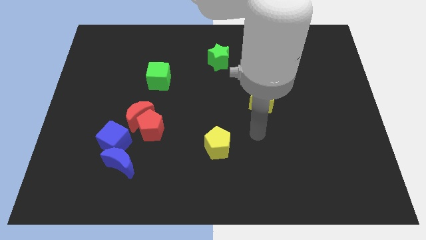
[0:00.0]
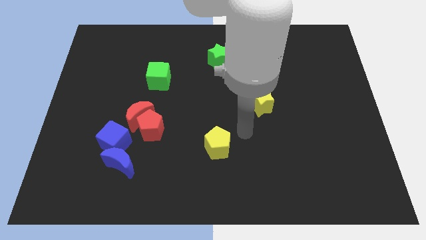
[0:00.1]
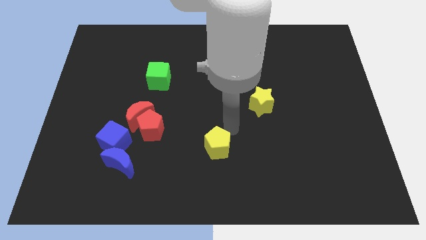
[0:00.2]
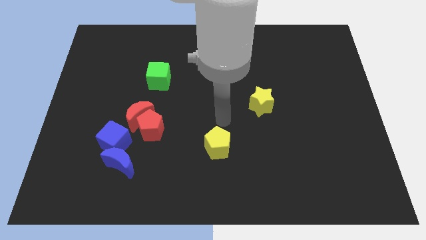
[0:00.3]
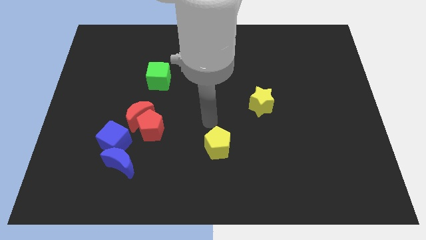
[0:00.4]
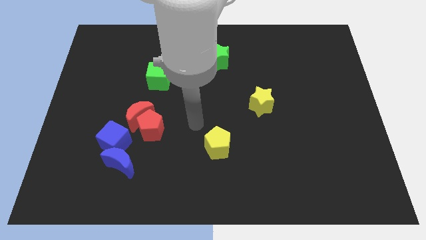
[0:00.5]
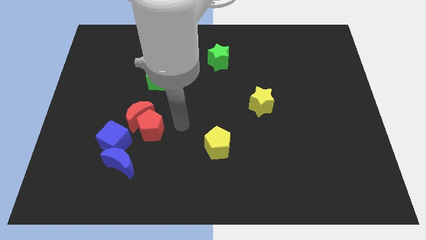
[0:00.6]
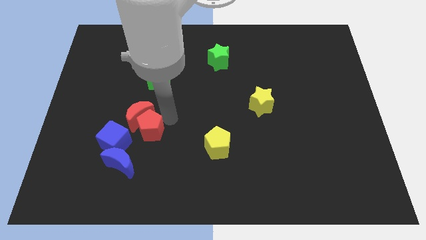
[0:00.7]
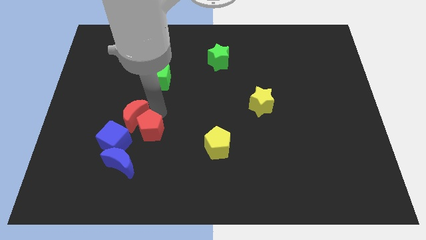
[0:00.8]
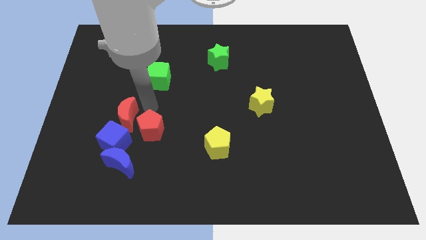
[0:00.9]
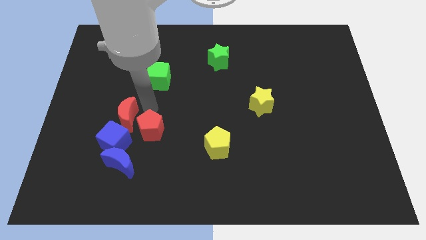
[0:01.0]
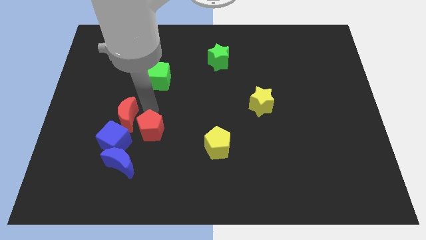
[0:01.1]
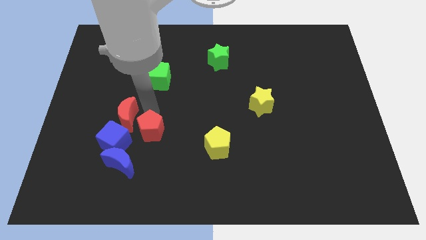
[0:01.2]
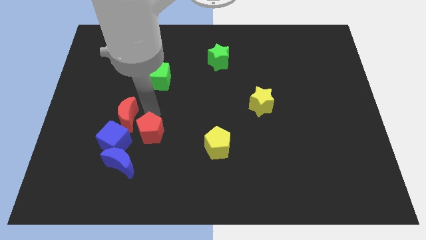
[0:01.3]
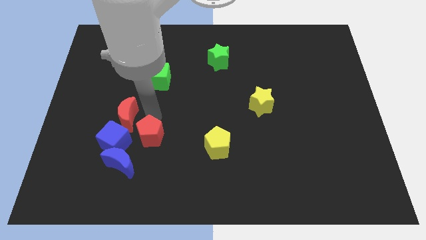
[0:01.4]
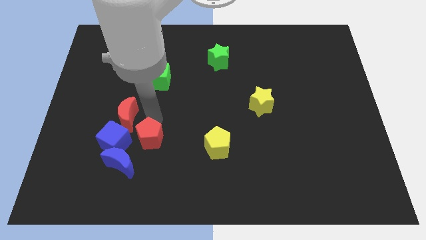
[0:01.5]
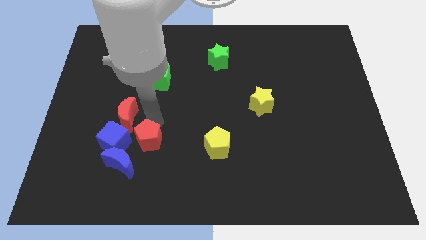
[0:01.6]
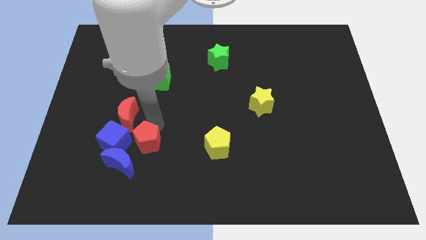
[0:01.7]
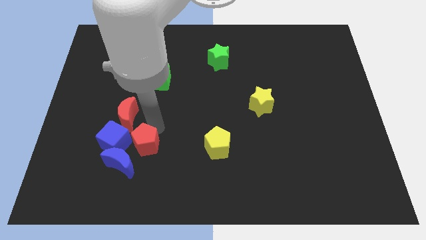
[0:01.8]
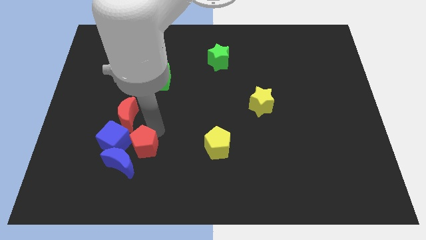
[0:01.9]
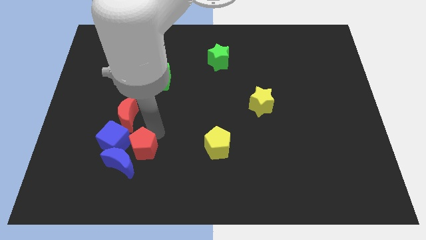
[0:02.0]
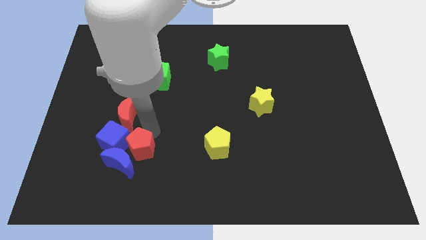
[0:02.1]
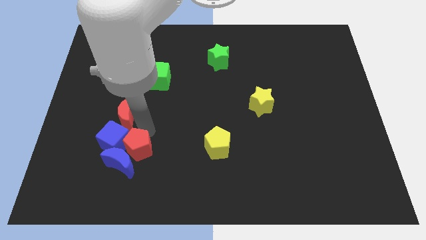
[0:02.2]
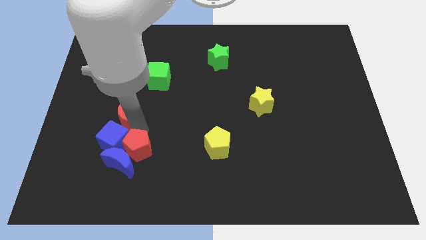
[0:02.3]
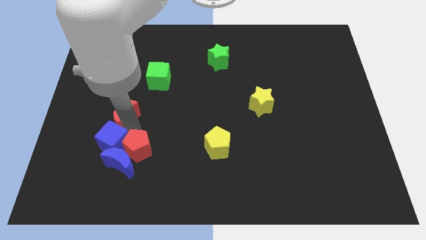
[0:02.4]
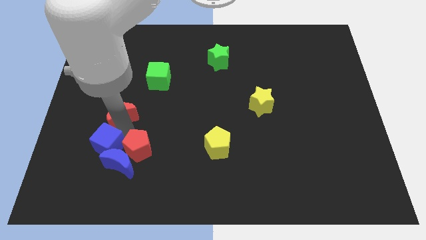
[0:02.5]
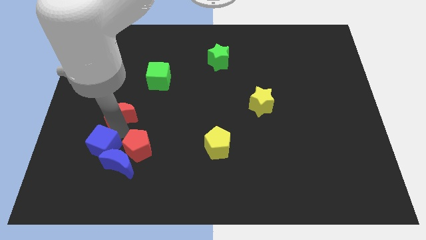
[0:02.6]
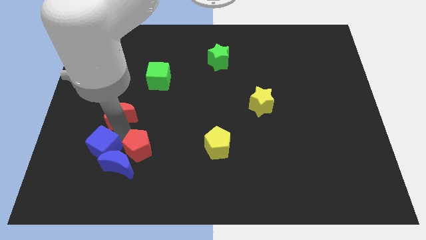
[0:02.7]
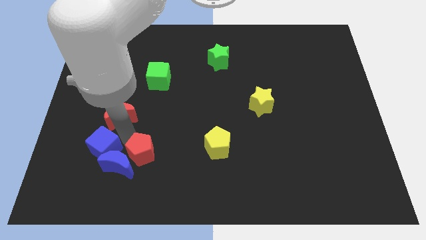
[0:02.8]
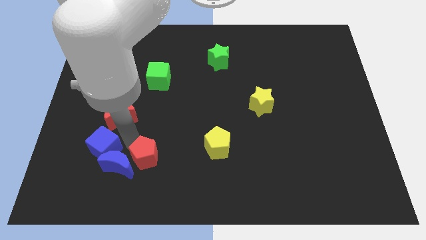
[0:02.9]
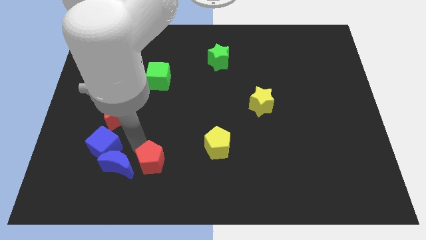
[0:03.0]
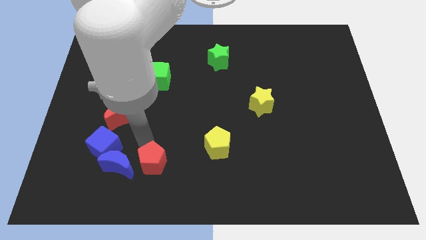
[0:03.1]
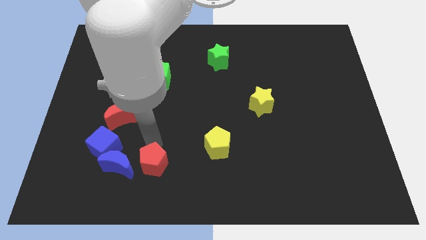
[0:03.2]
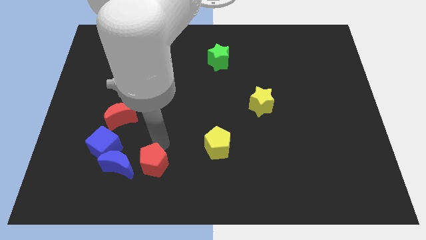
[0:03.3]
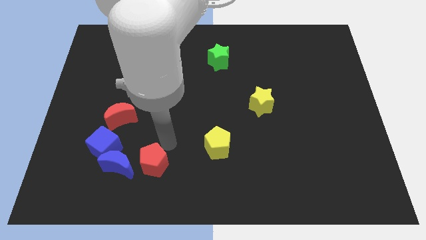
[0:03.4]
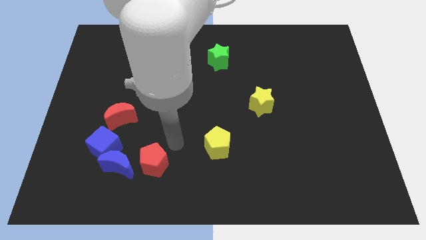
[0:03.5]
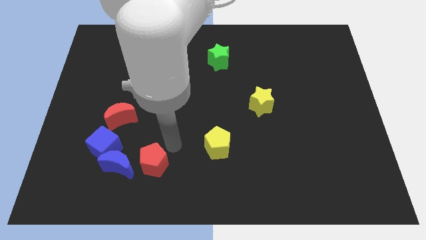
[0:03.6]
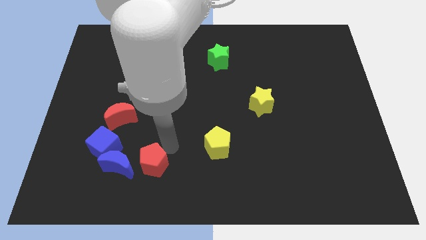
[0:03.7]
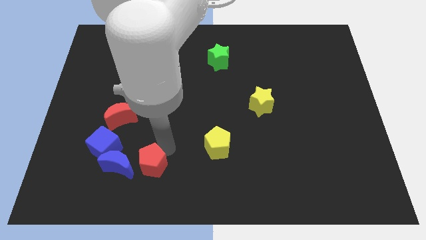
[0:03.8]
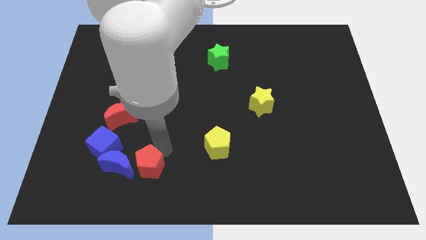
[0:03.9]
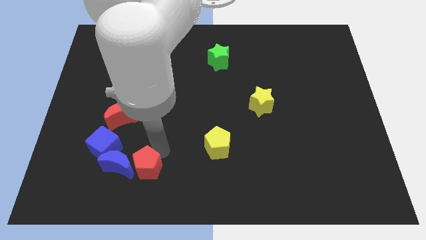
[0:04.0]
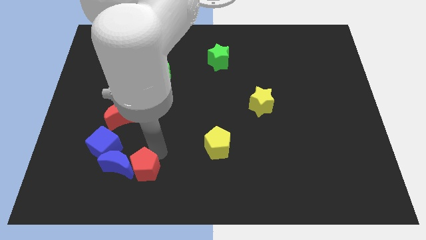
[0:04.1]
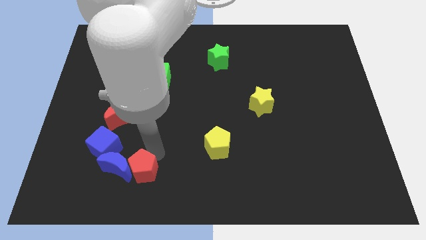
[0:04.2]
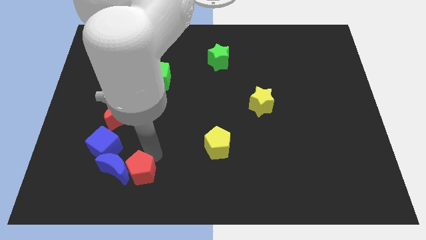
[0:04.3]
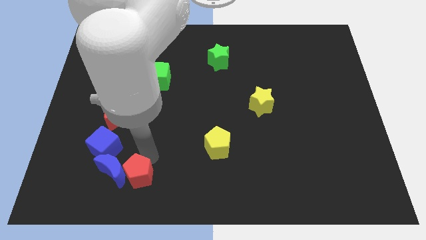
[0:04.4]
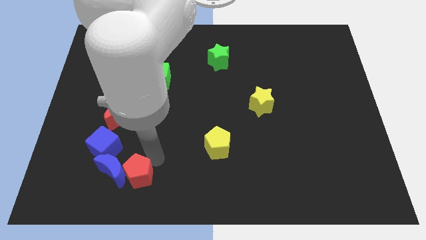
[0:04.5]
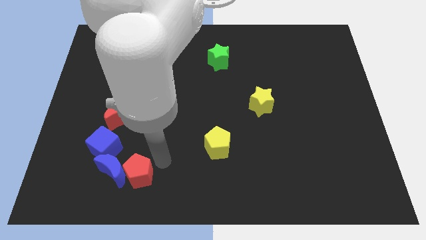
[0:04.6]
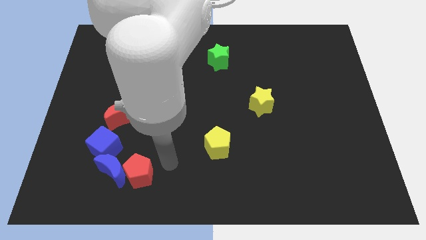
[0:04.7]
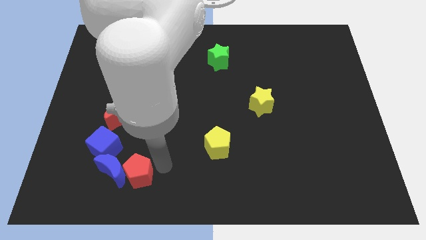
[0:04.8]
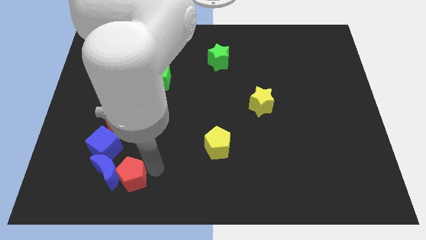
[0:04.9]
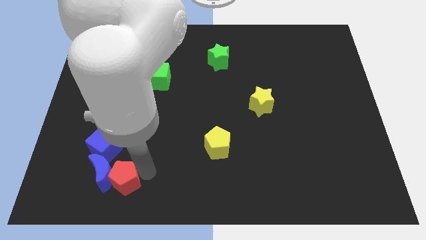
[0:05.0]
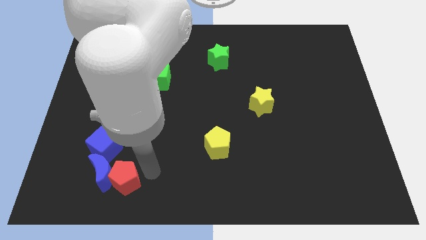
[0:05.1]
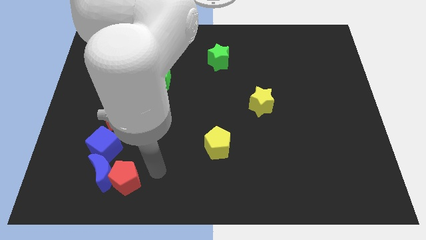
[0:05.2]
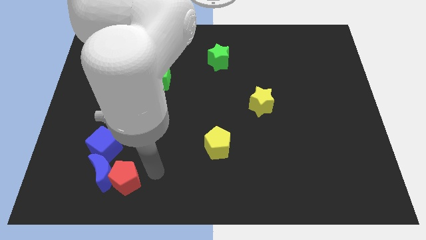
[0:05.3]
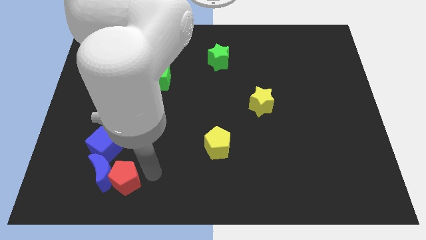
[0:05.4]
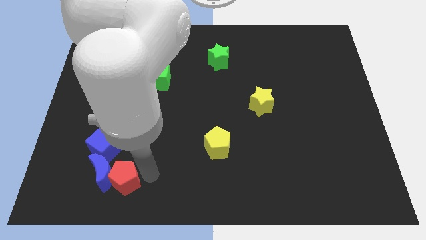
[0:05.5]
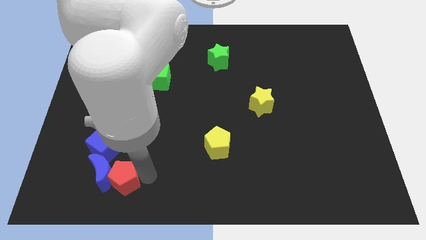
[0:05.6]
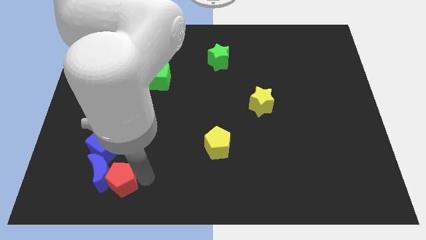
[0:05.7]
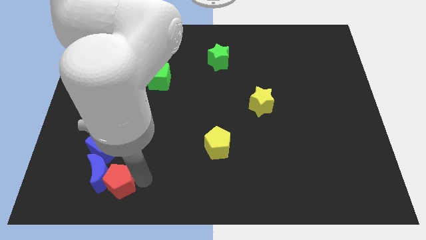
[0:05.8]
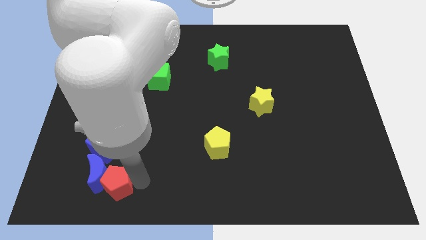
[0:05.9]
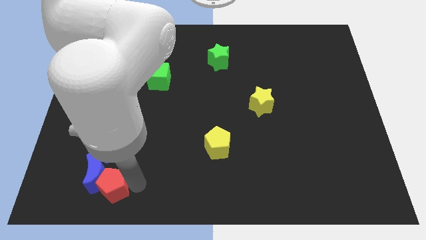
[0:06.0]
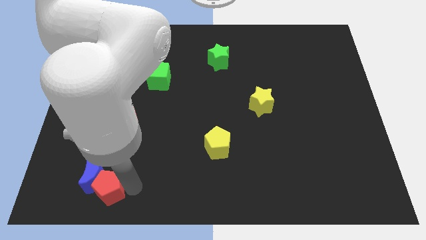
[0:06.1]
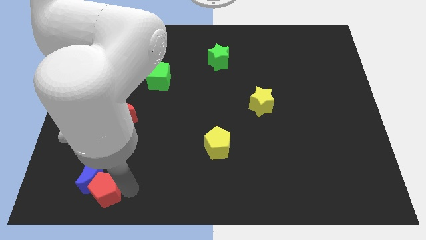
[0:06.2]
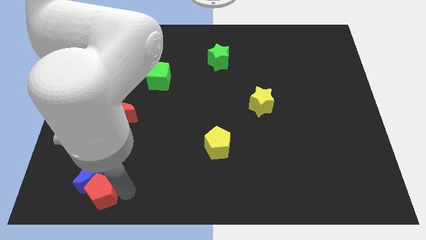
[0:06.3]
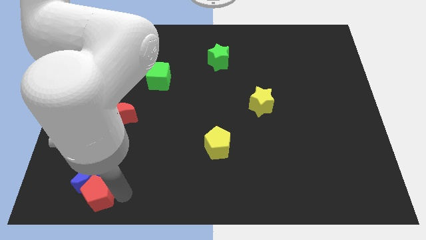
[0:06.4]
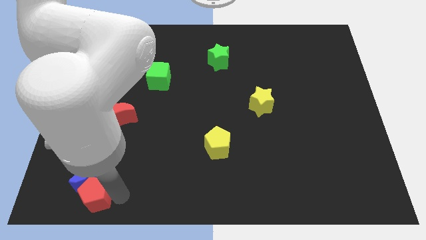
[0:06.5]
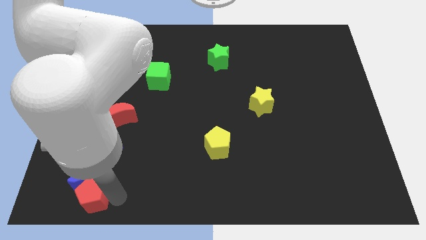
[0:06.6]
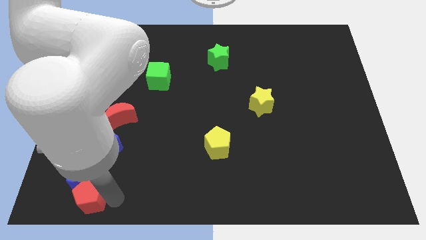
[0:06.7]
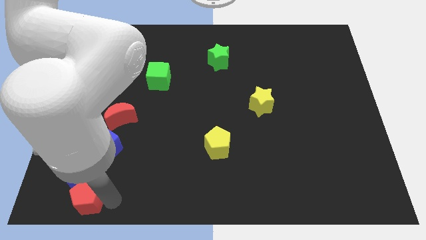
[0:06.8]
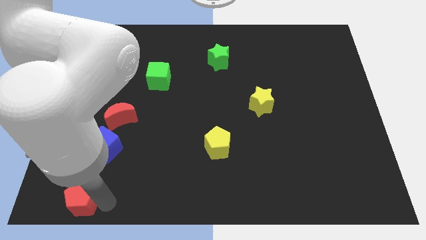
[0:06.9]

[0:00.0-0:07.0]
put the red pentagon to the bottom left

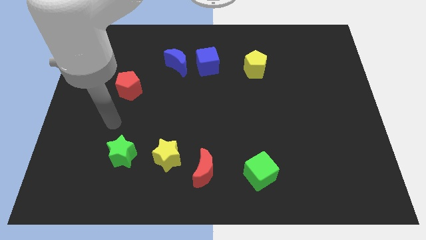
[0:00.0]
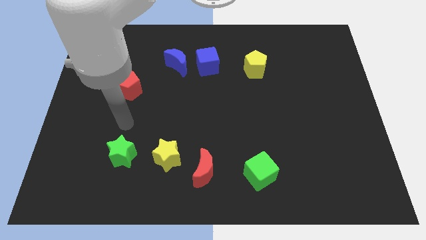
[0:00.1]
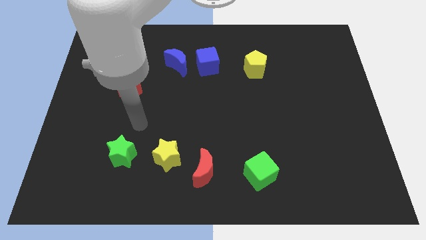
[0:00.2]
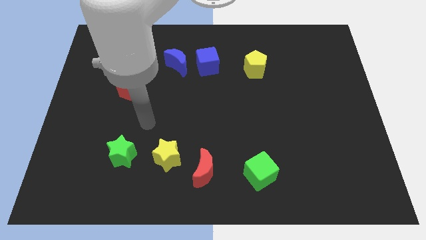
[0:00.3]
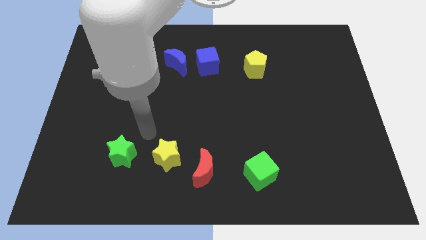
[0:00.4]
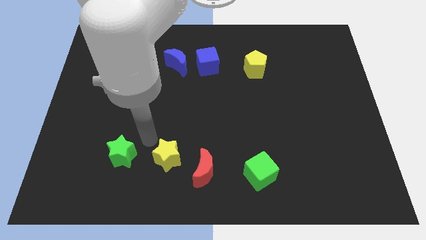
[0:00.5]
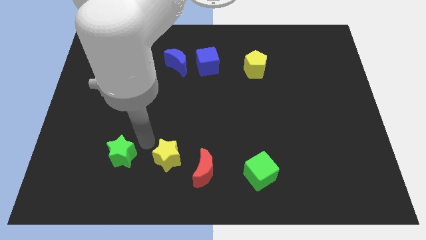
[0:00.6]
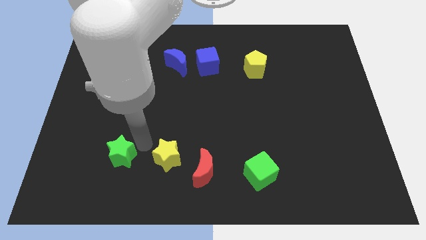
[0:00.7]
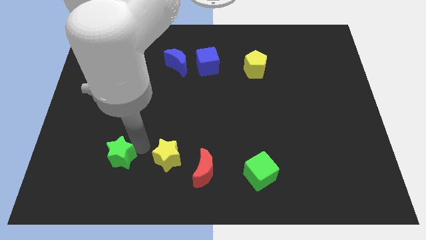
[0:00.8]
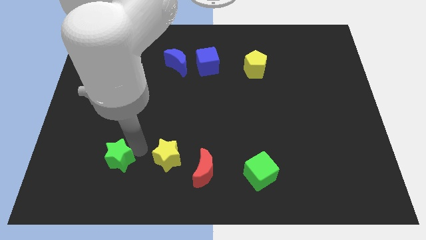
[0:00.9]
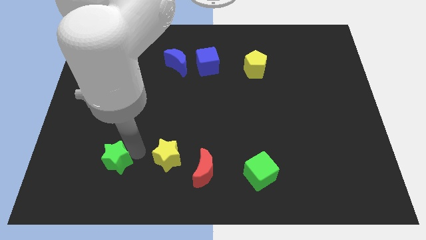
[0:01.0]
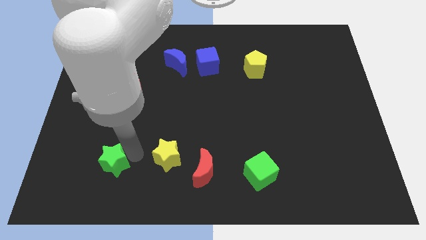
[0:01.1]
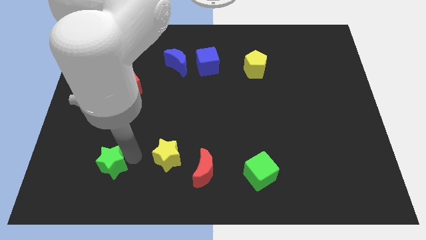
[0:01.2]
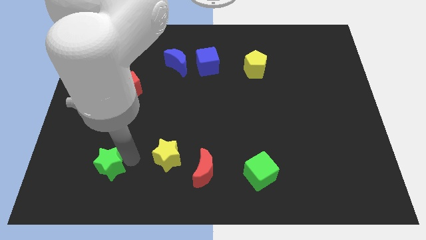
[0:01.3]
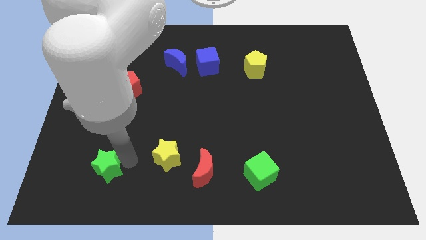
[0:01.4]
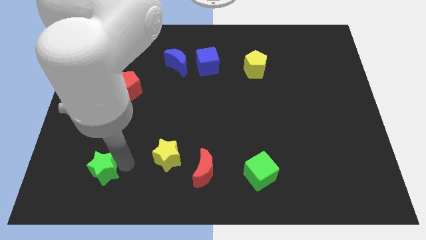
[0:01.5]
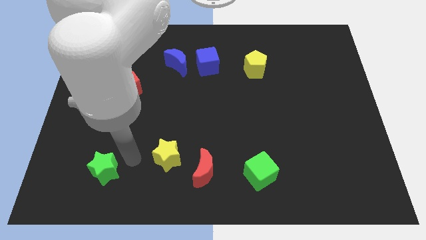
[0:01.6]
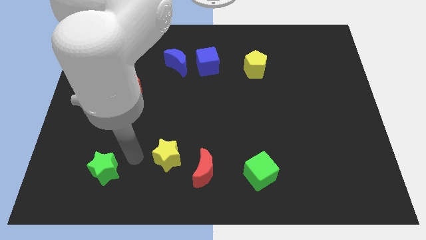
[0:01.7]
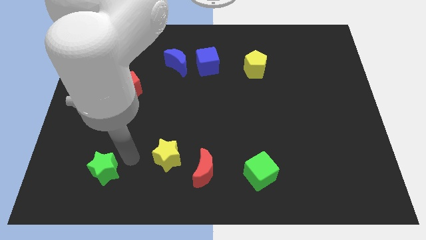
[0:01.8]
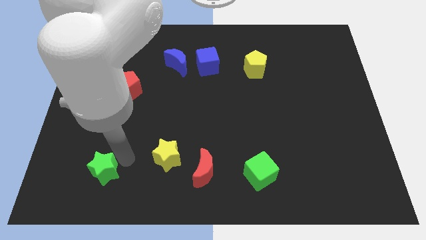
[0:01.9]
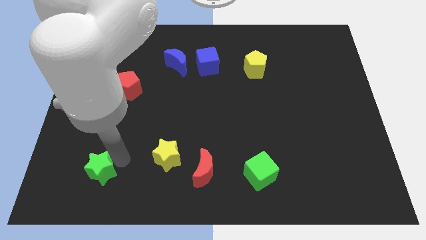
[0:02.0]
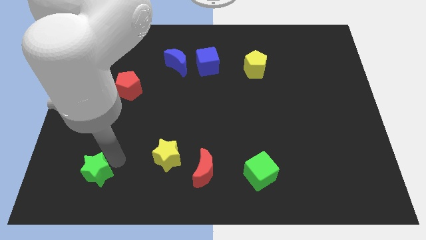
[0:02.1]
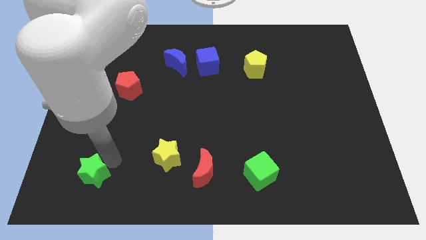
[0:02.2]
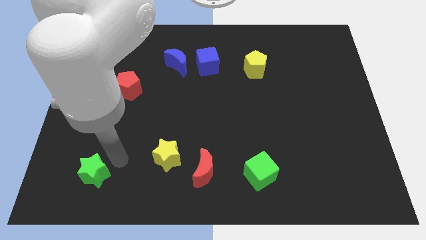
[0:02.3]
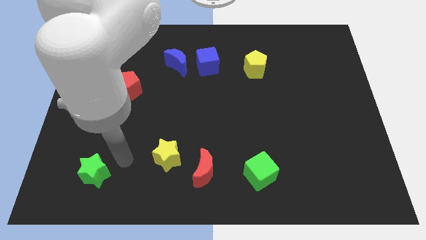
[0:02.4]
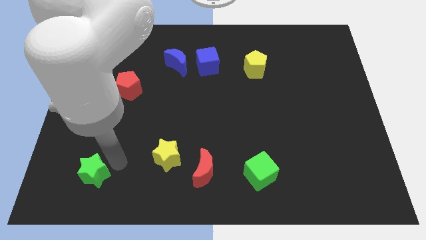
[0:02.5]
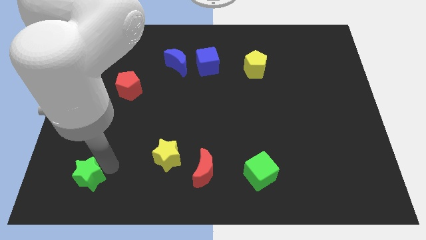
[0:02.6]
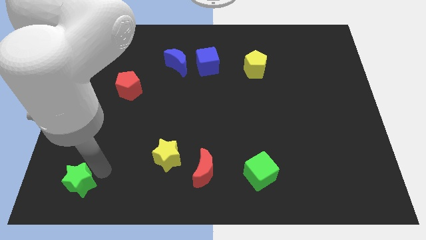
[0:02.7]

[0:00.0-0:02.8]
slide the green star to the bottom left
